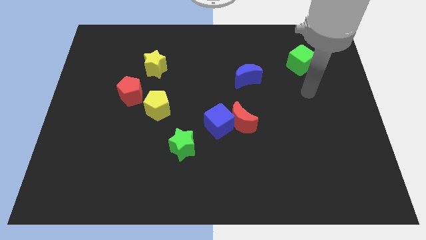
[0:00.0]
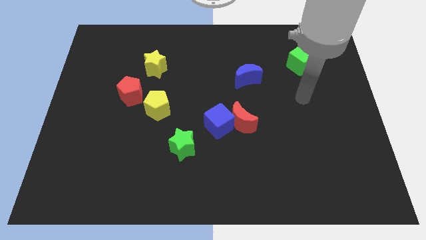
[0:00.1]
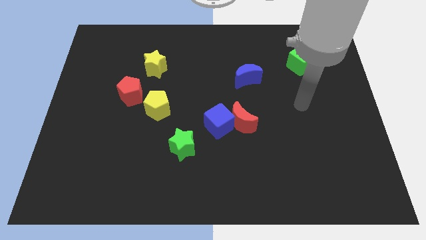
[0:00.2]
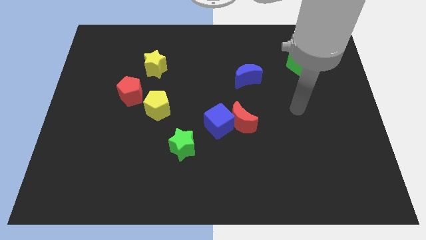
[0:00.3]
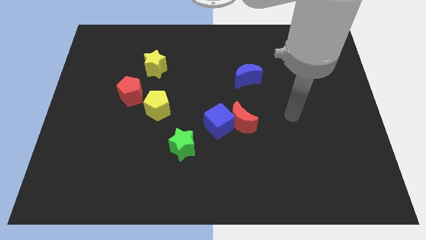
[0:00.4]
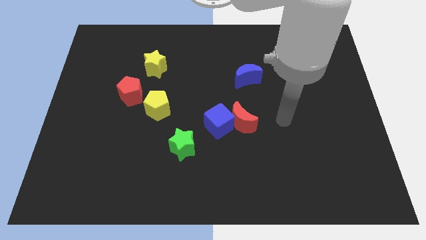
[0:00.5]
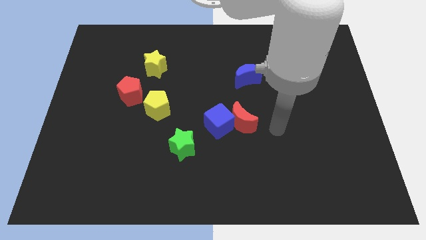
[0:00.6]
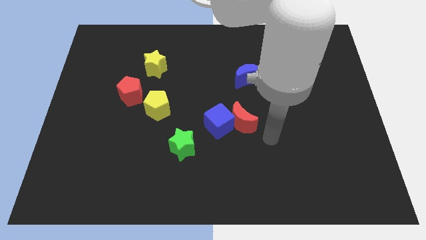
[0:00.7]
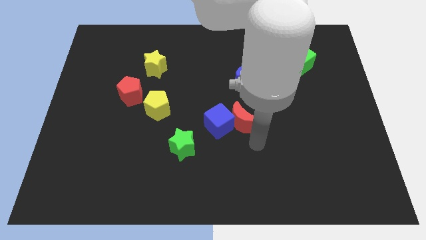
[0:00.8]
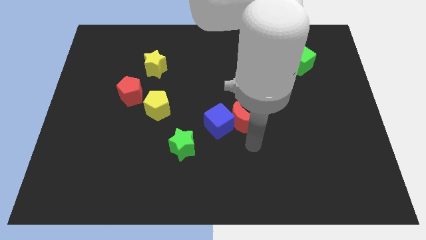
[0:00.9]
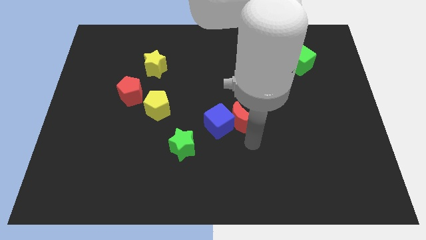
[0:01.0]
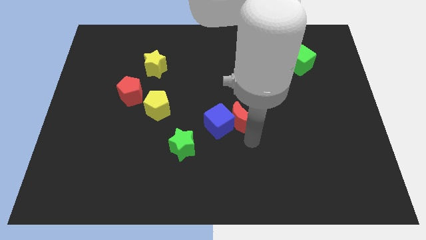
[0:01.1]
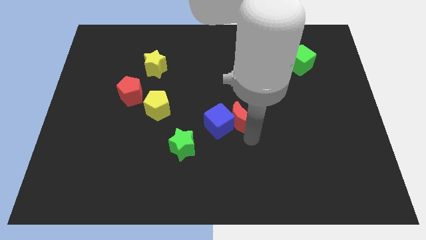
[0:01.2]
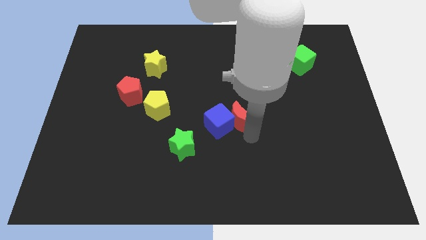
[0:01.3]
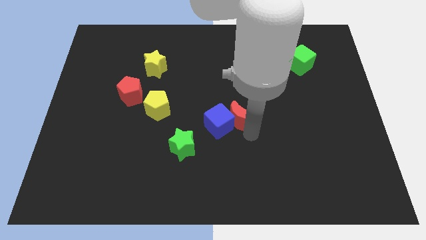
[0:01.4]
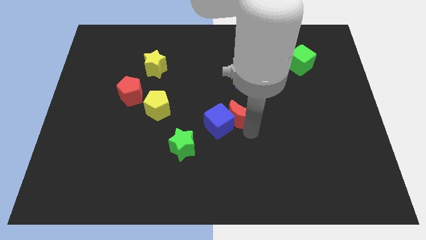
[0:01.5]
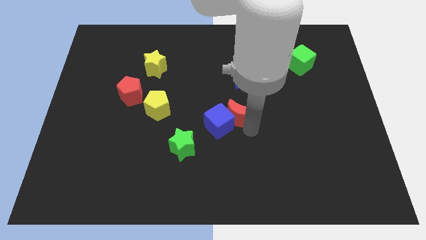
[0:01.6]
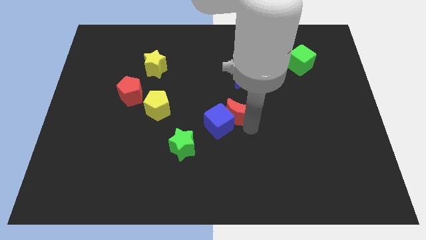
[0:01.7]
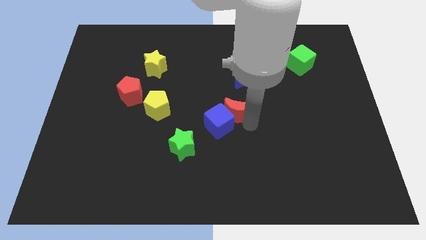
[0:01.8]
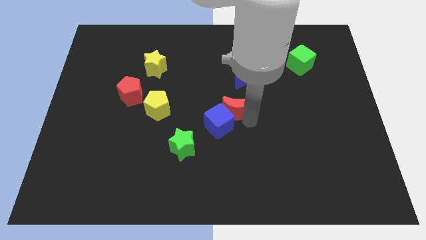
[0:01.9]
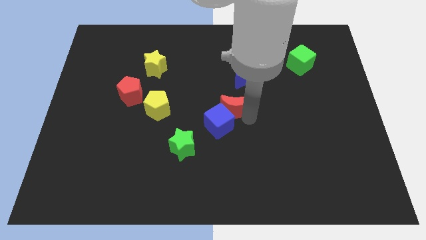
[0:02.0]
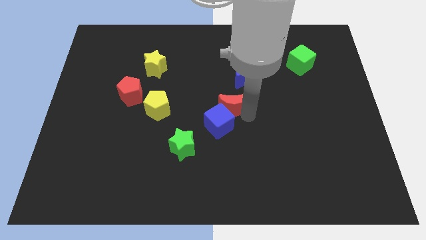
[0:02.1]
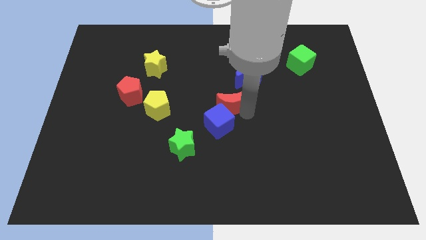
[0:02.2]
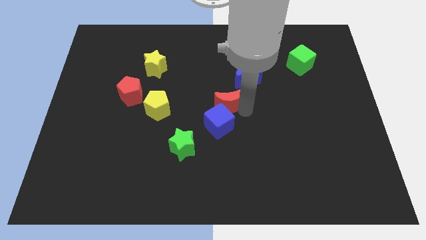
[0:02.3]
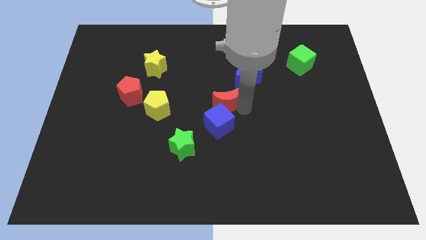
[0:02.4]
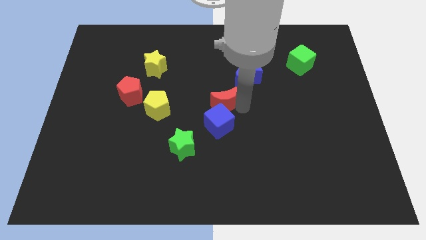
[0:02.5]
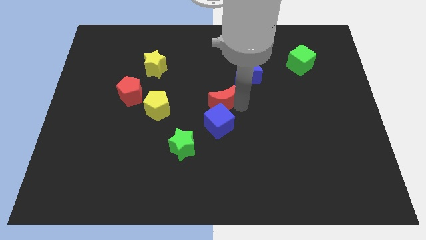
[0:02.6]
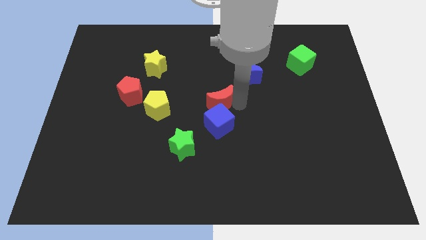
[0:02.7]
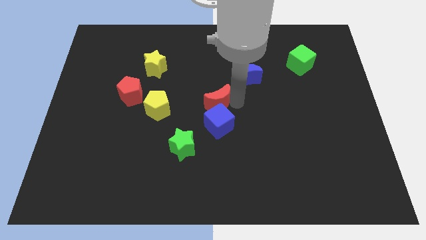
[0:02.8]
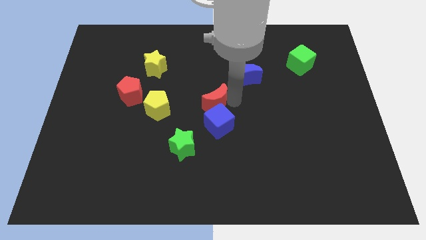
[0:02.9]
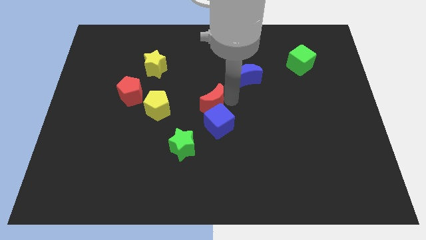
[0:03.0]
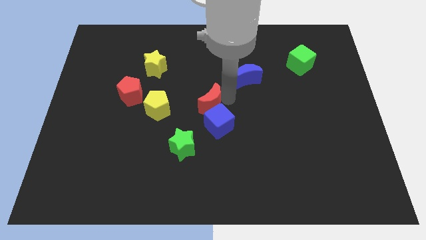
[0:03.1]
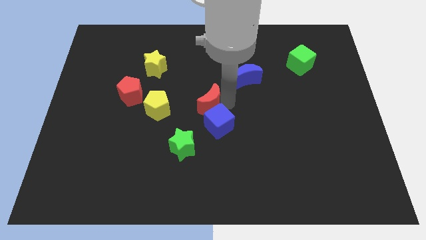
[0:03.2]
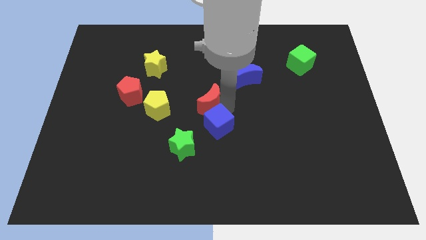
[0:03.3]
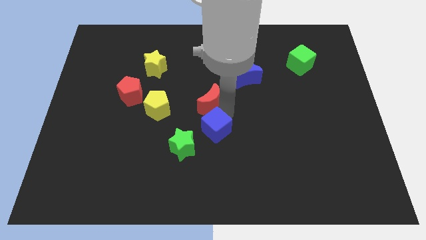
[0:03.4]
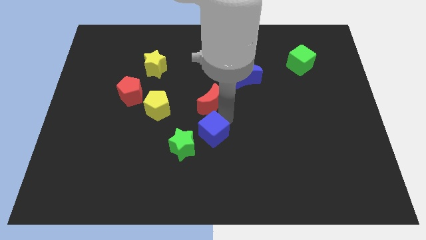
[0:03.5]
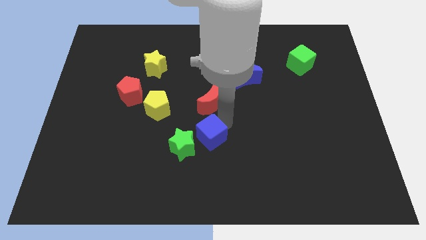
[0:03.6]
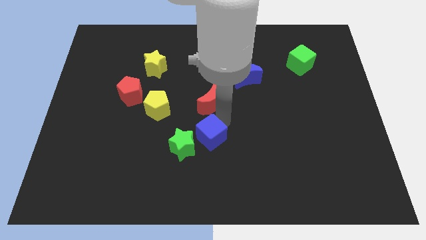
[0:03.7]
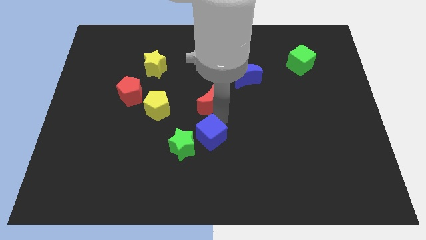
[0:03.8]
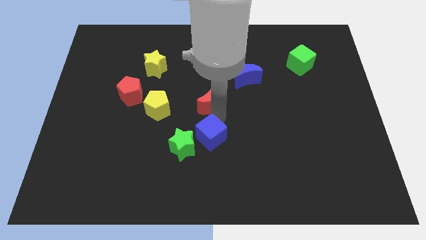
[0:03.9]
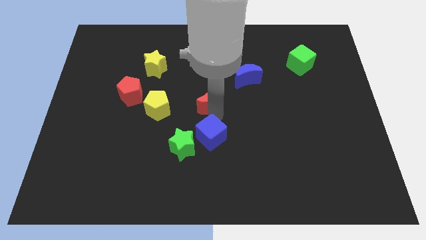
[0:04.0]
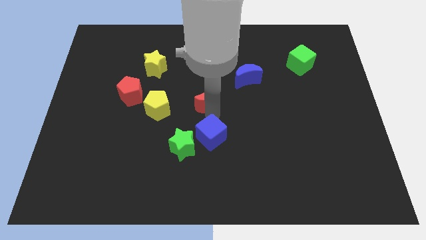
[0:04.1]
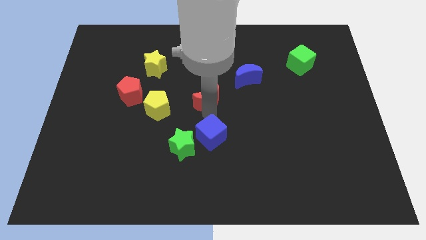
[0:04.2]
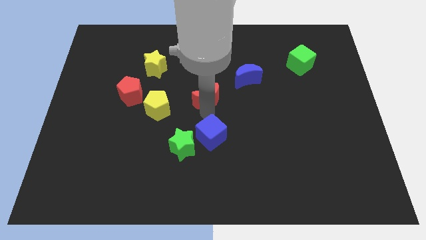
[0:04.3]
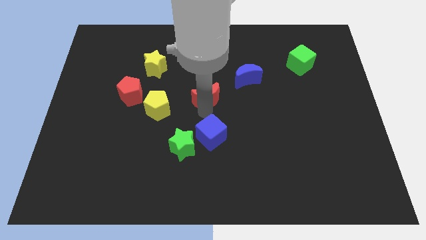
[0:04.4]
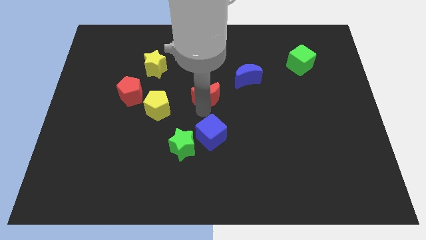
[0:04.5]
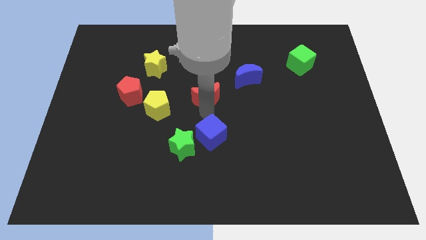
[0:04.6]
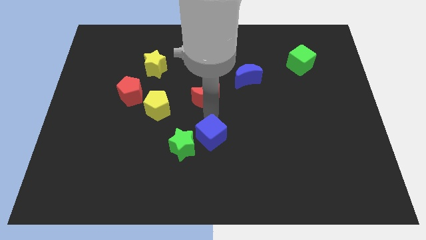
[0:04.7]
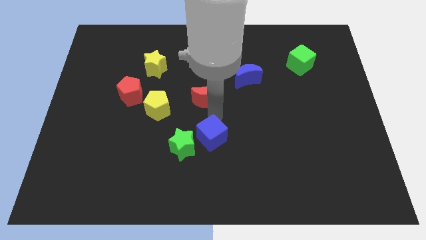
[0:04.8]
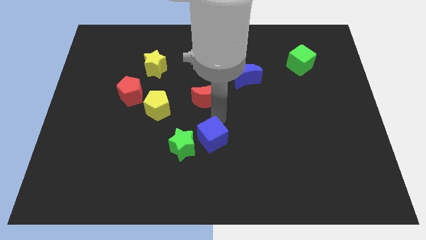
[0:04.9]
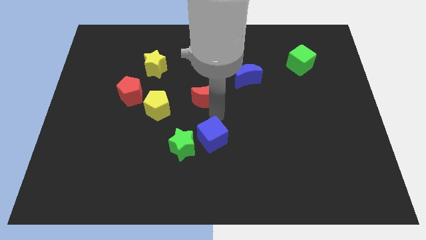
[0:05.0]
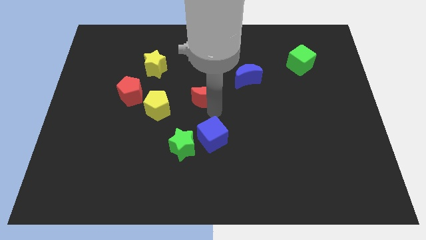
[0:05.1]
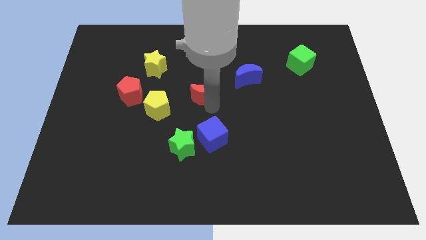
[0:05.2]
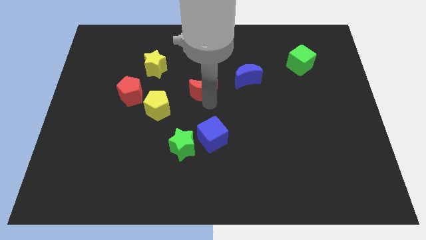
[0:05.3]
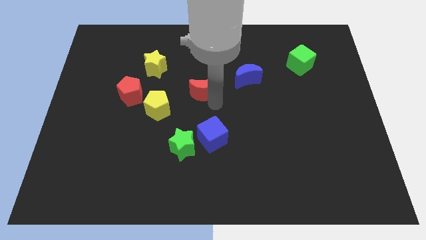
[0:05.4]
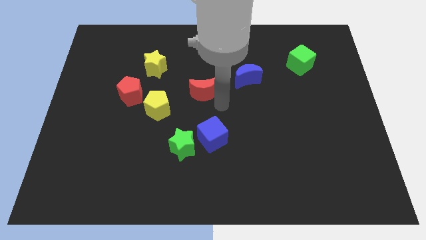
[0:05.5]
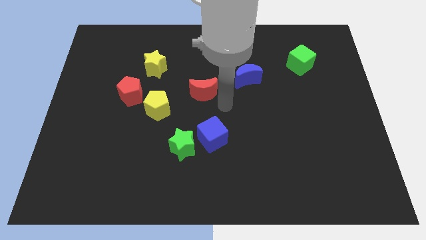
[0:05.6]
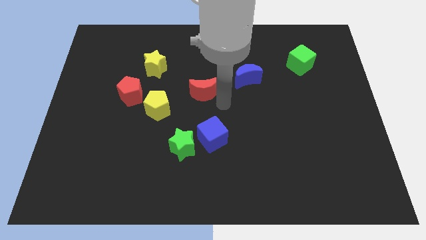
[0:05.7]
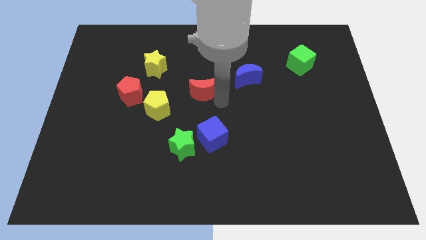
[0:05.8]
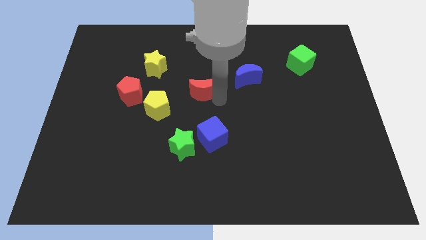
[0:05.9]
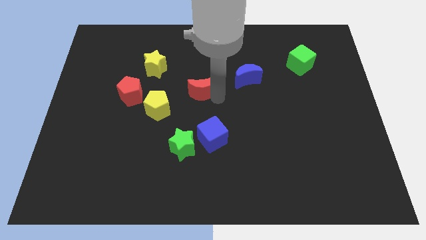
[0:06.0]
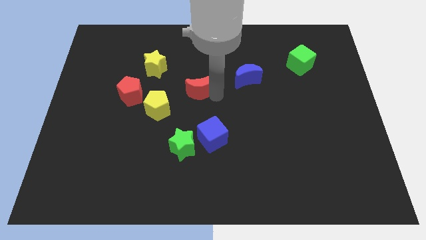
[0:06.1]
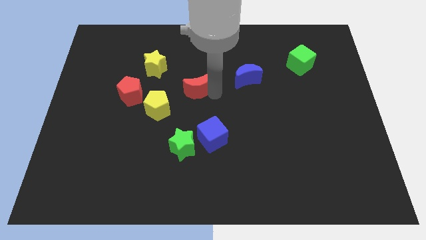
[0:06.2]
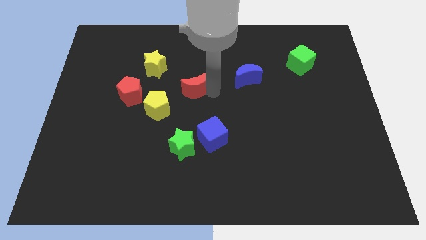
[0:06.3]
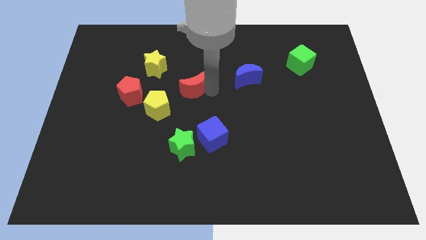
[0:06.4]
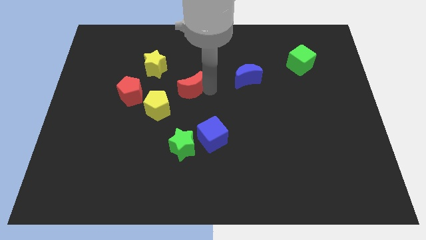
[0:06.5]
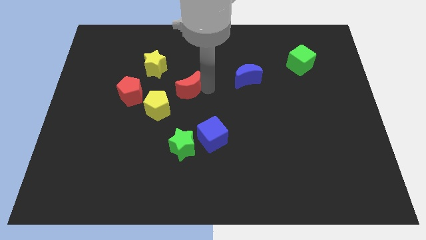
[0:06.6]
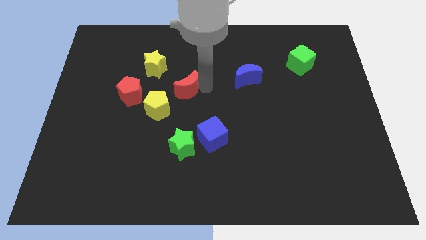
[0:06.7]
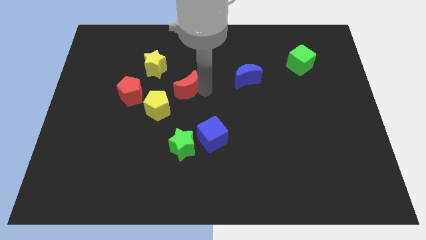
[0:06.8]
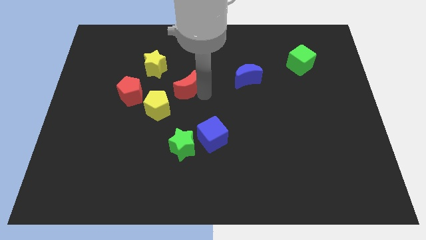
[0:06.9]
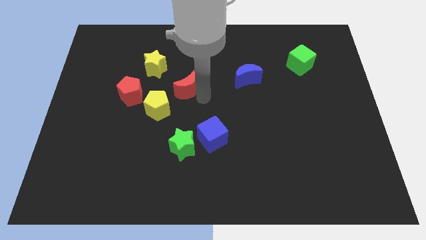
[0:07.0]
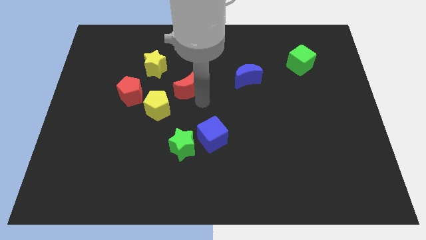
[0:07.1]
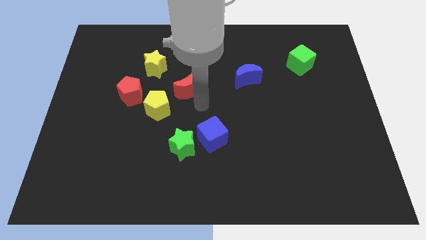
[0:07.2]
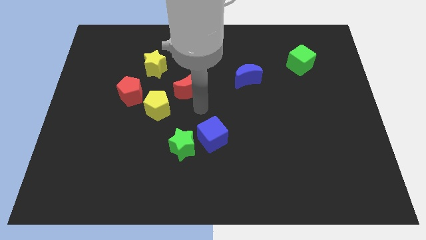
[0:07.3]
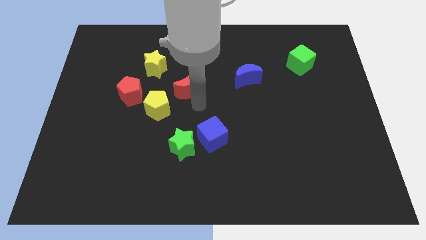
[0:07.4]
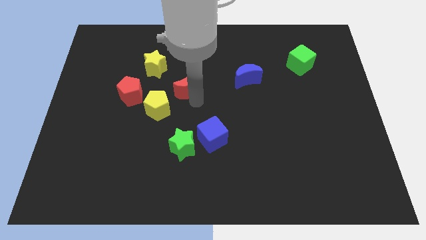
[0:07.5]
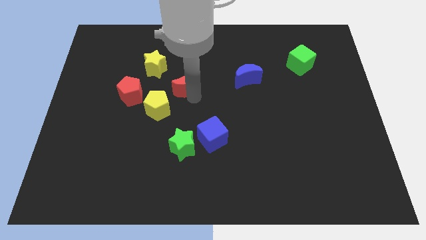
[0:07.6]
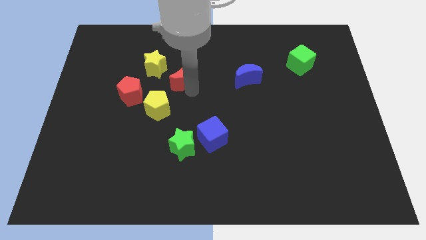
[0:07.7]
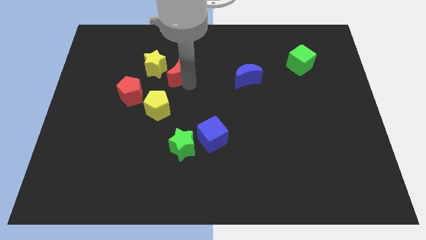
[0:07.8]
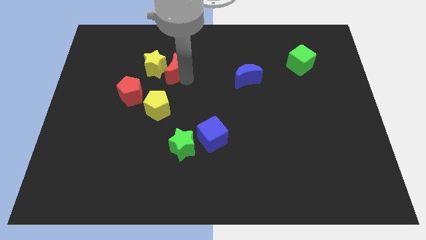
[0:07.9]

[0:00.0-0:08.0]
put the red moon next to the yellow star

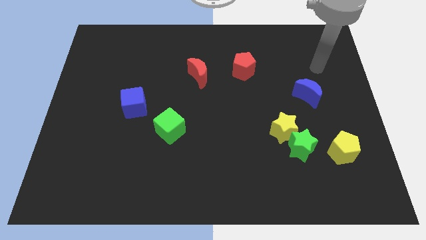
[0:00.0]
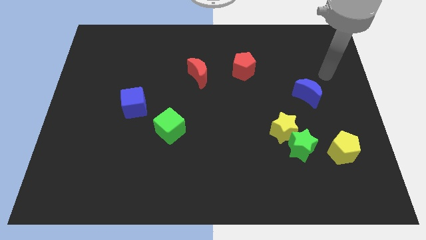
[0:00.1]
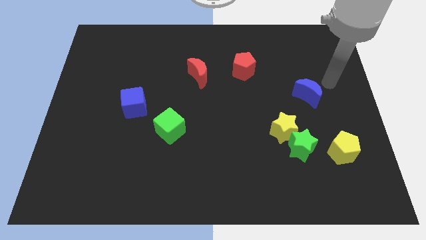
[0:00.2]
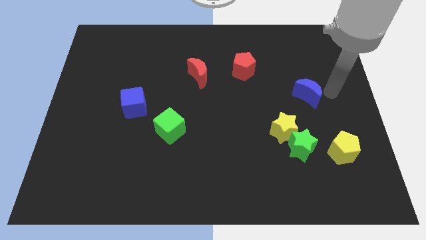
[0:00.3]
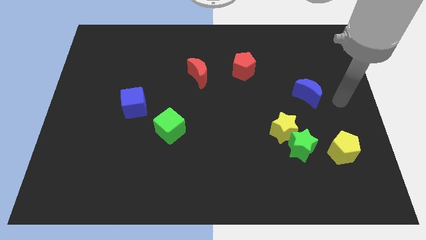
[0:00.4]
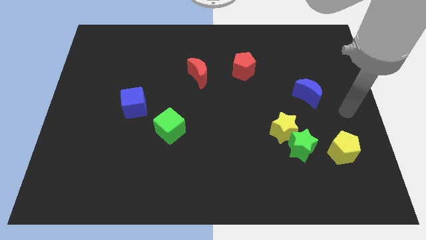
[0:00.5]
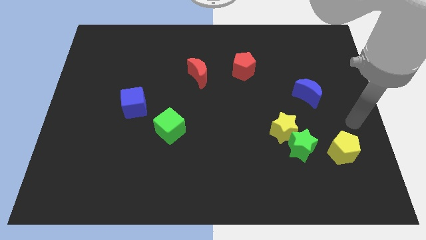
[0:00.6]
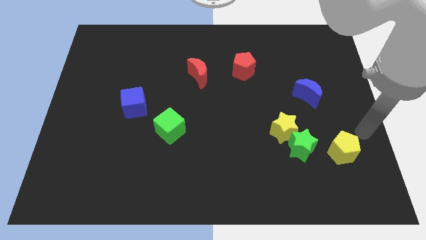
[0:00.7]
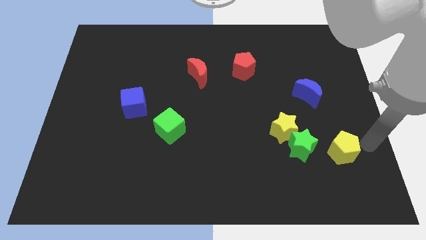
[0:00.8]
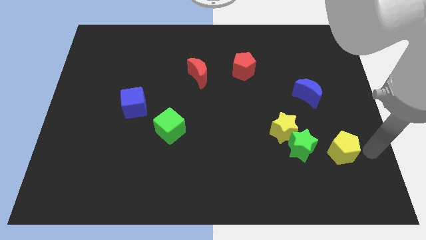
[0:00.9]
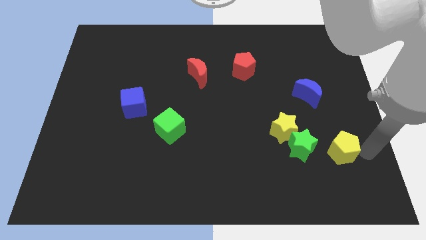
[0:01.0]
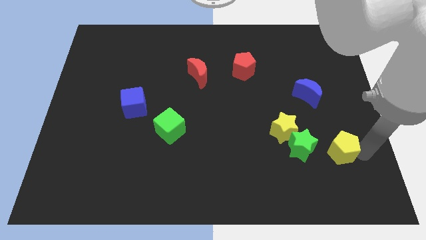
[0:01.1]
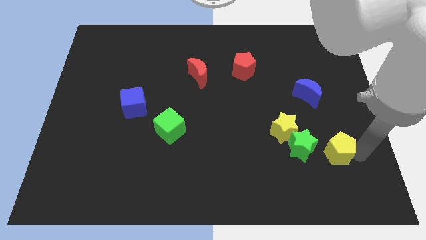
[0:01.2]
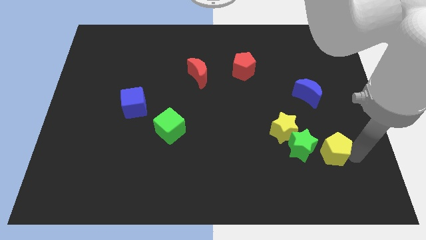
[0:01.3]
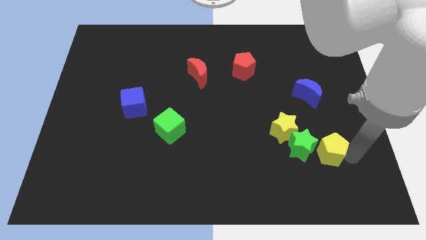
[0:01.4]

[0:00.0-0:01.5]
move the yellow pentagon close to the green star
